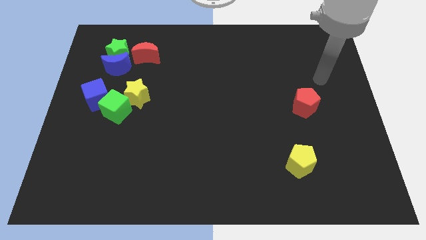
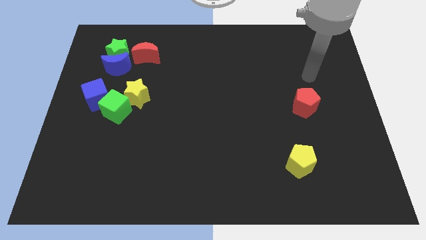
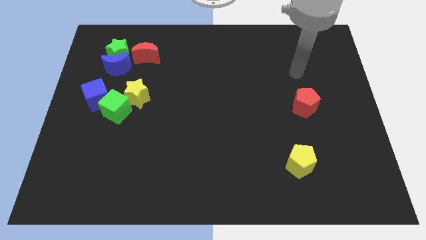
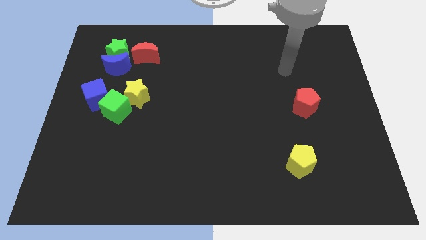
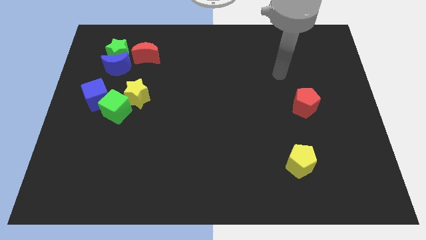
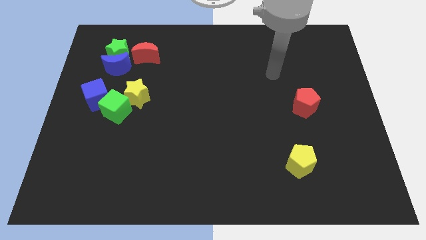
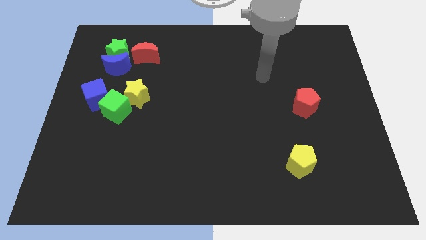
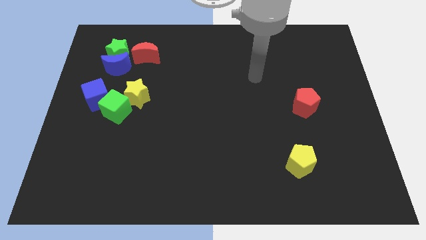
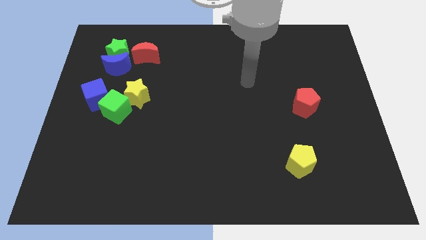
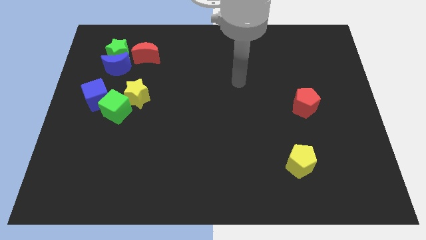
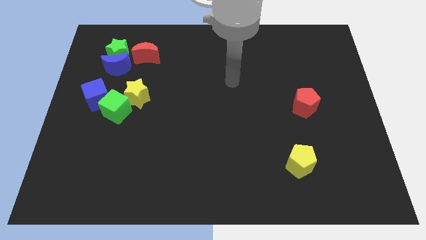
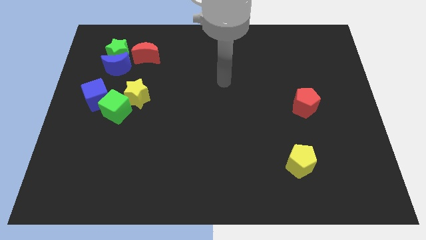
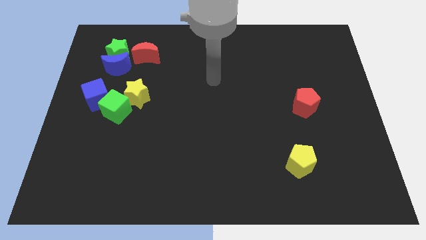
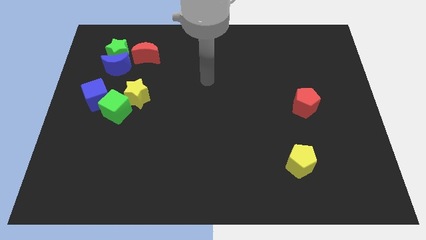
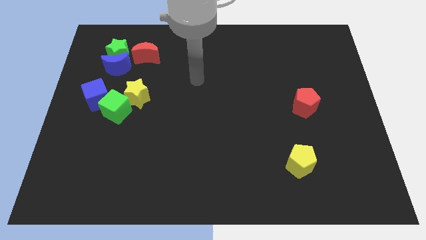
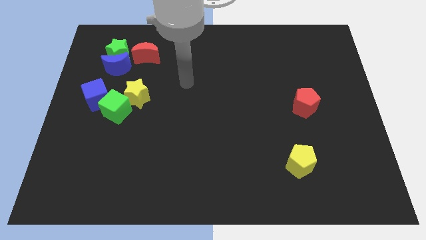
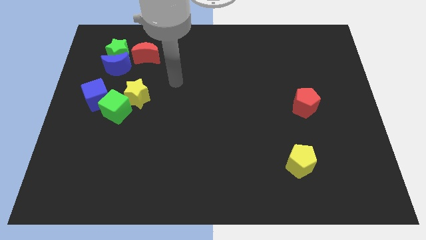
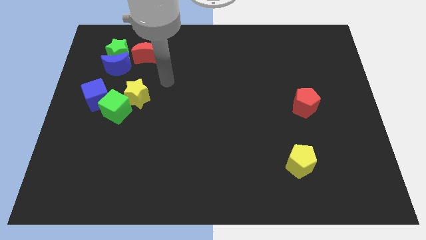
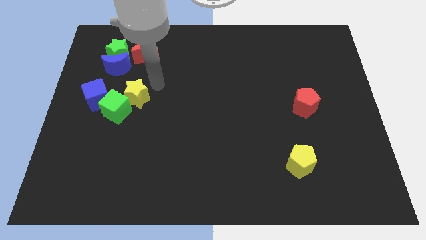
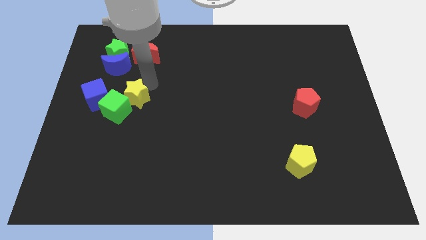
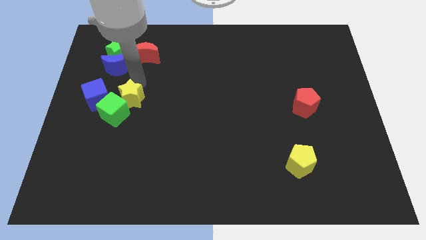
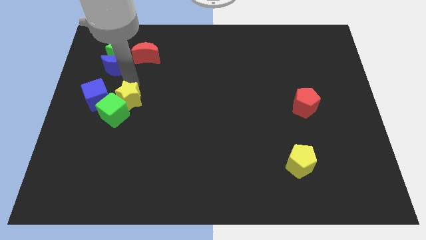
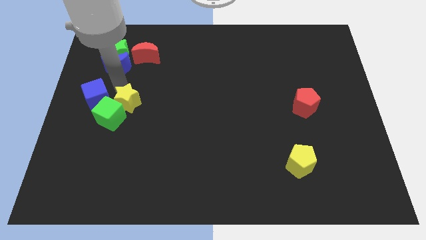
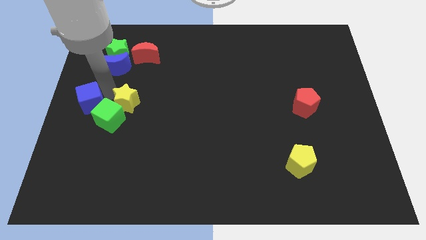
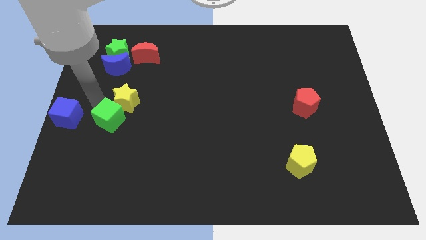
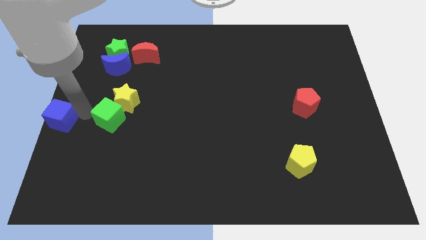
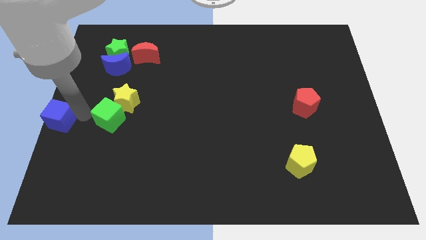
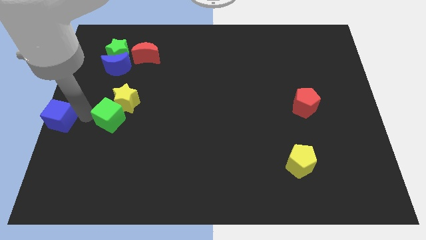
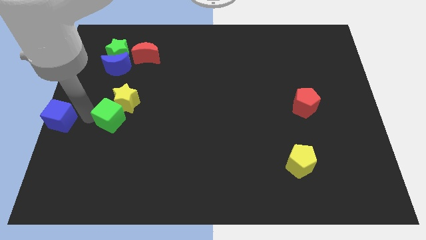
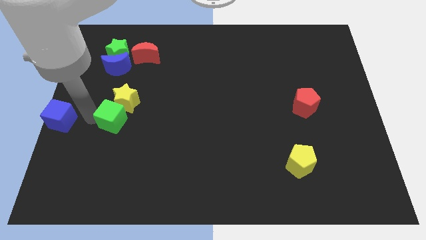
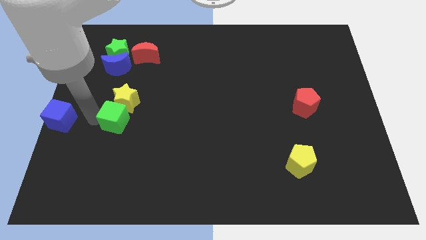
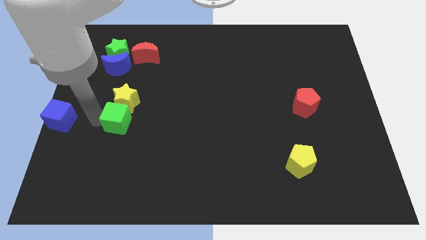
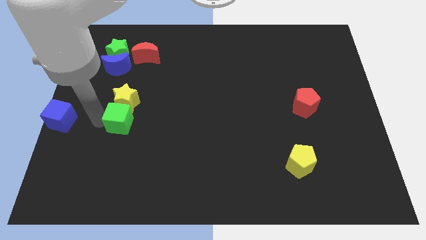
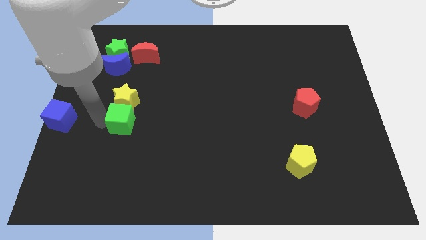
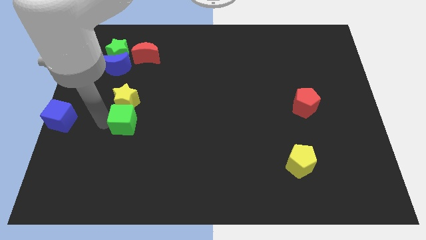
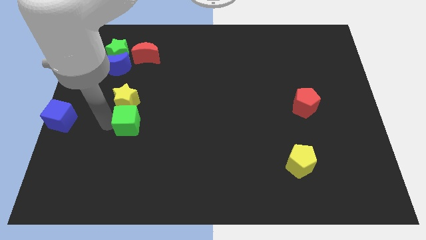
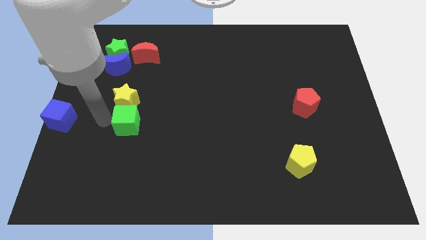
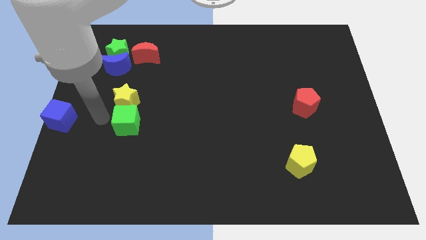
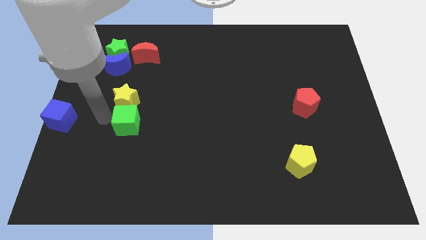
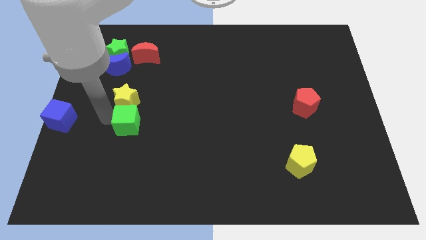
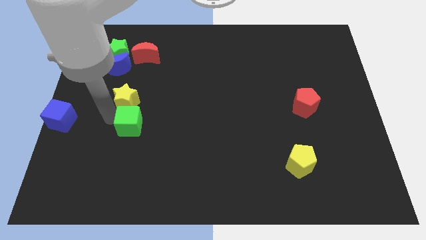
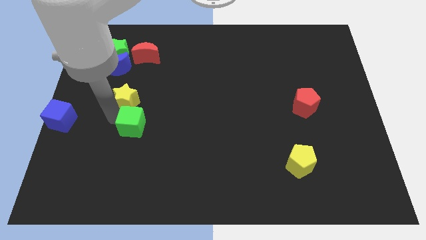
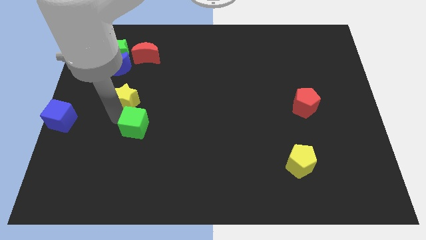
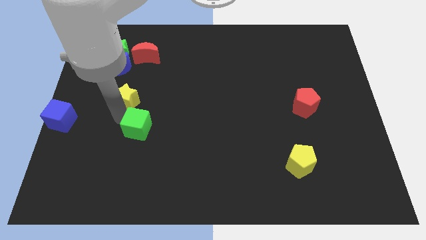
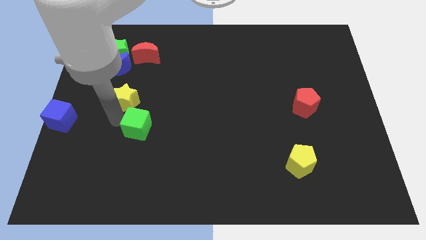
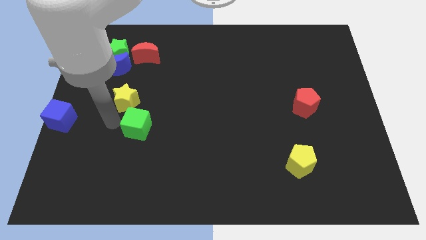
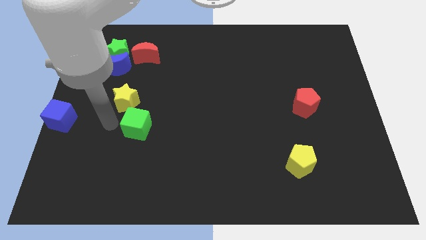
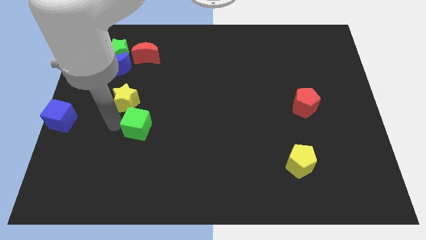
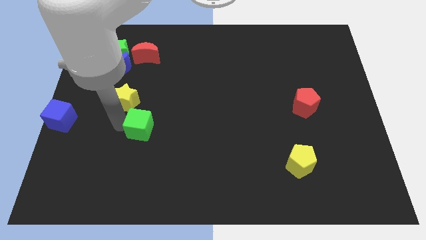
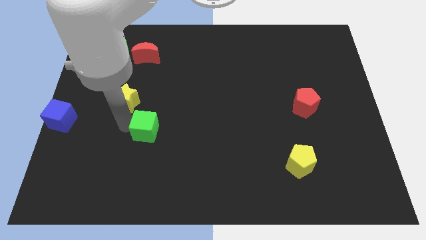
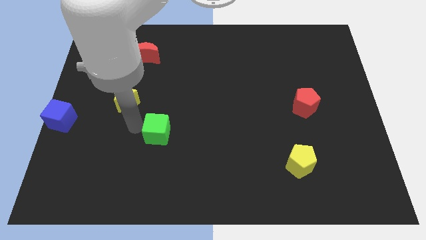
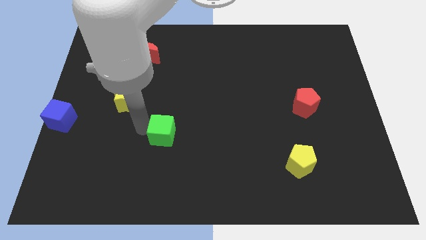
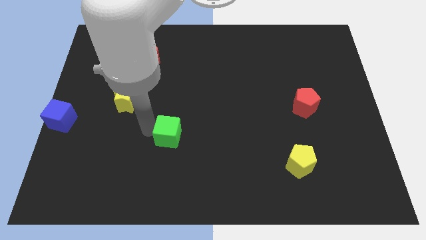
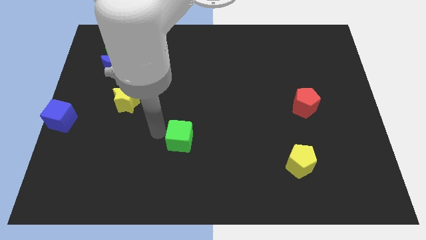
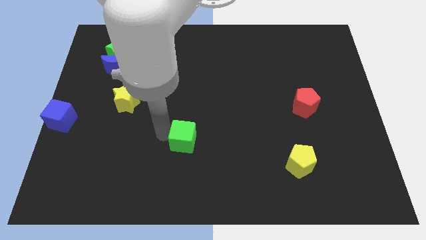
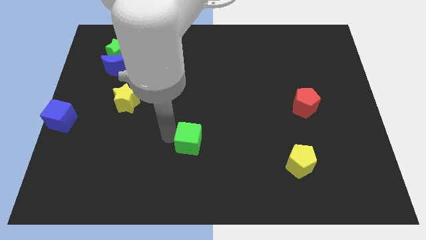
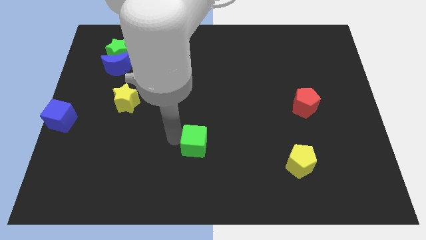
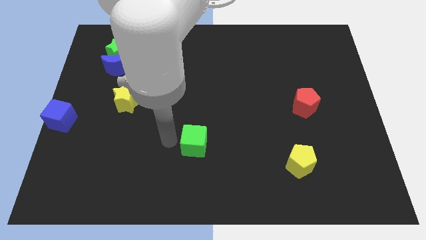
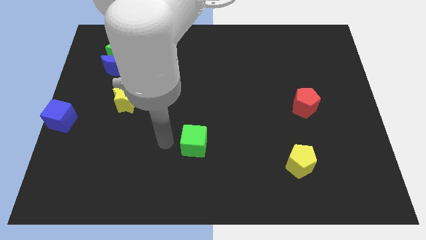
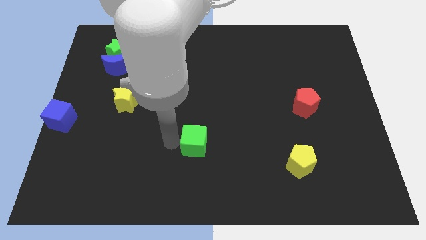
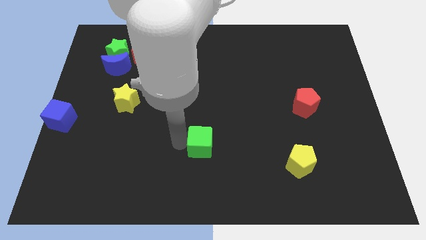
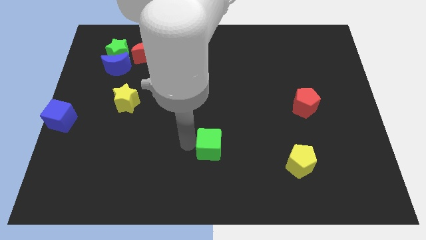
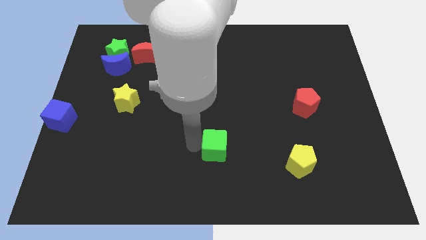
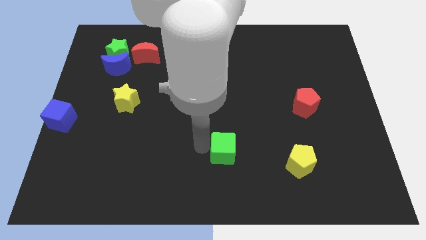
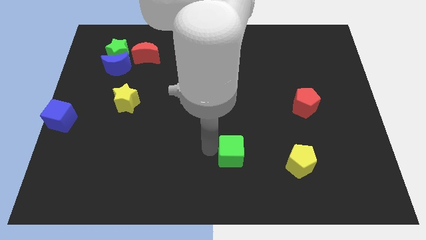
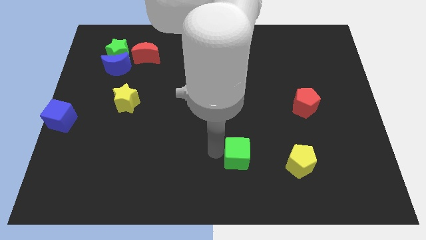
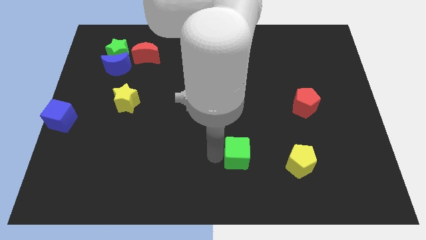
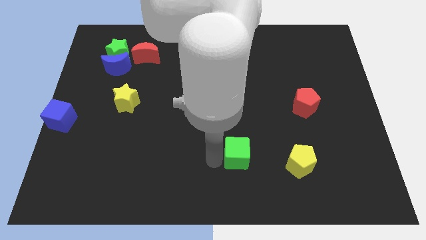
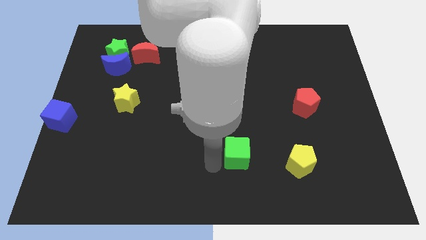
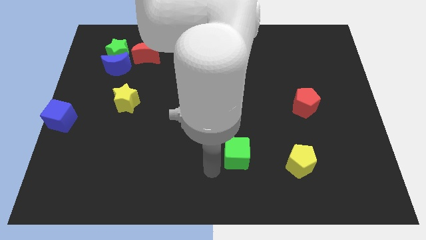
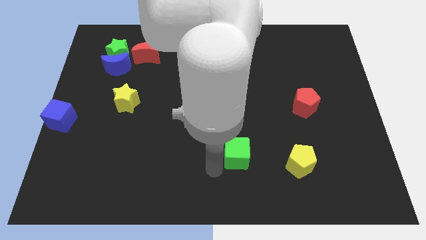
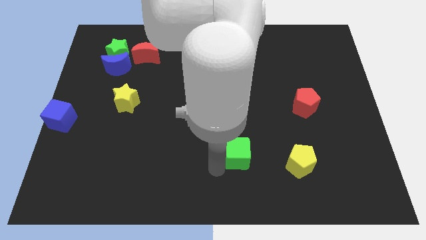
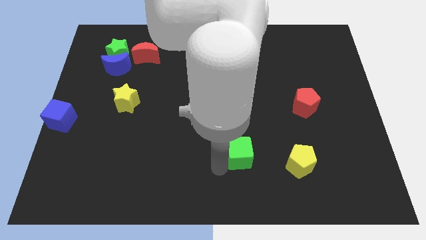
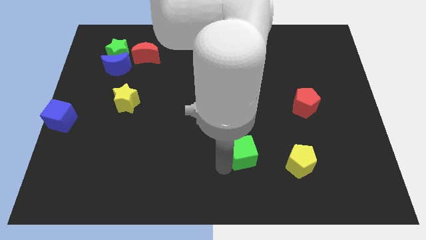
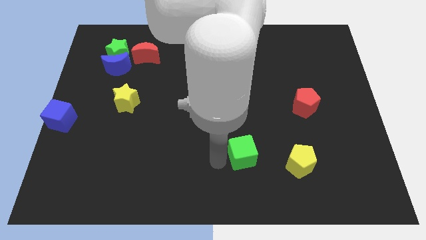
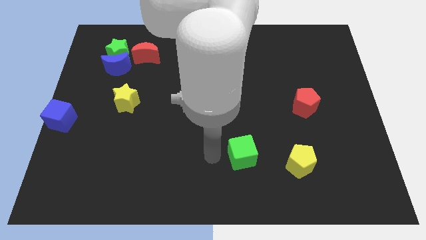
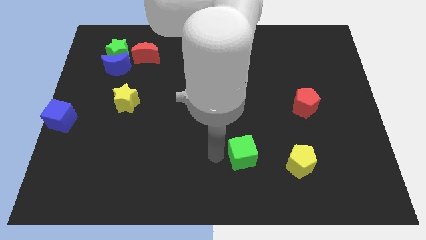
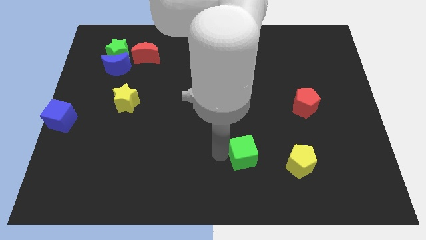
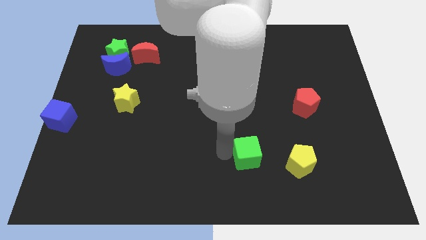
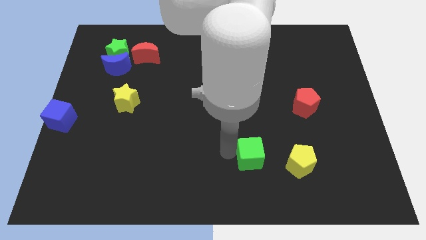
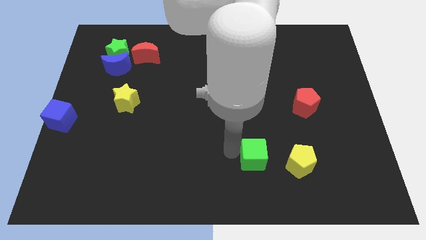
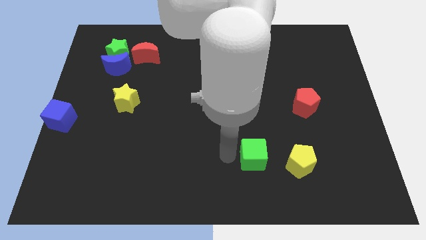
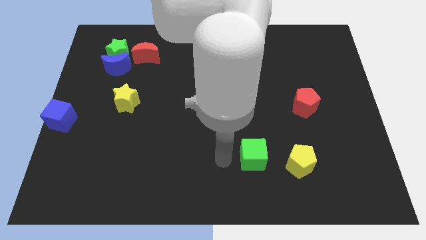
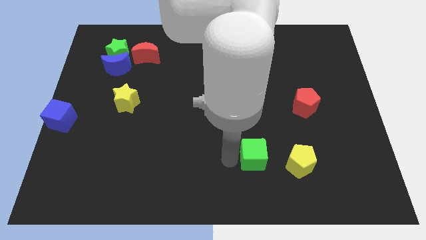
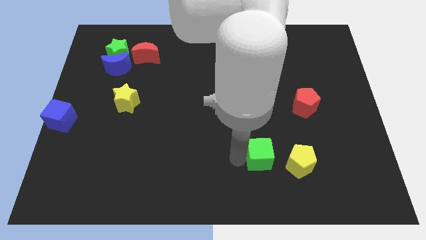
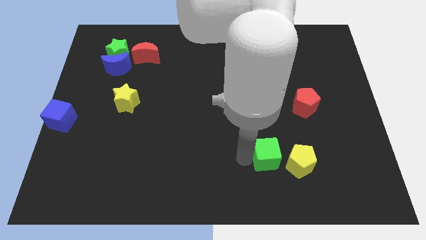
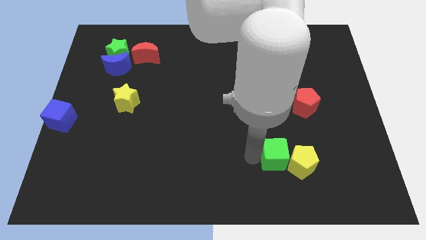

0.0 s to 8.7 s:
slide the green cube close to the yellow pentagon
